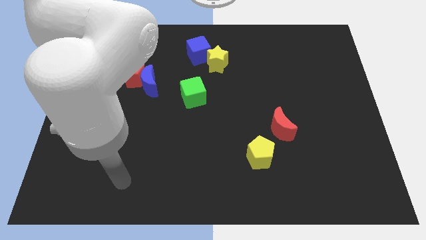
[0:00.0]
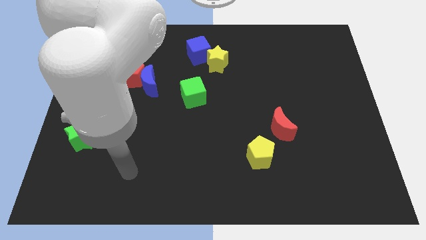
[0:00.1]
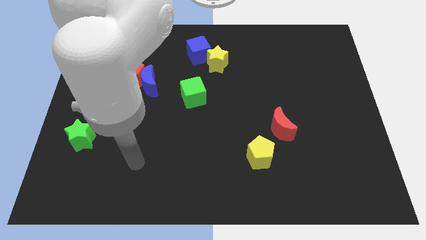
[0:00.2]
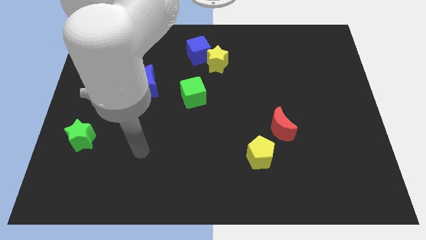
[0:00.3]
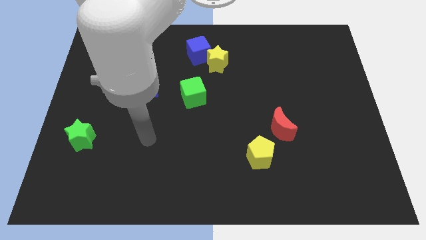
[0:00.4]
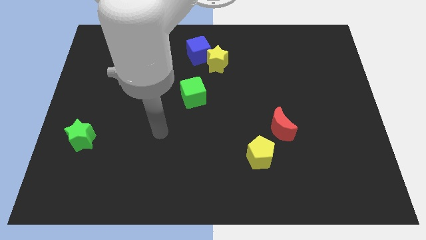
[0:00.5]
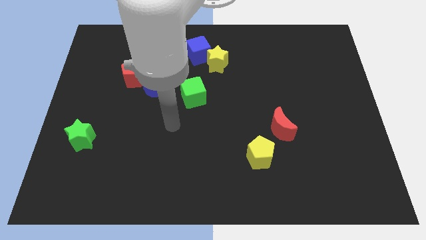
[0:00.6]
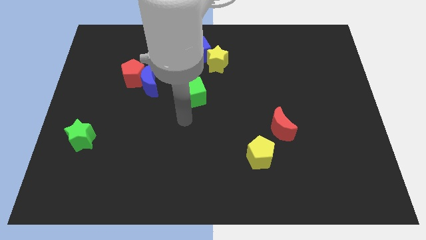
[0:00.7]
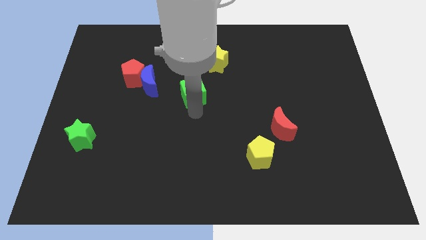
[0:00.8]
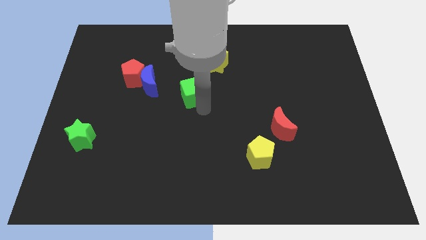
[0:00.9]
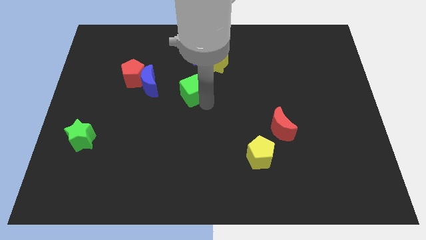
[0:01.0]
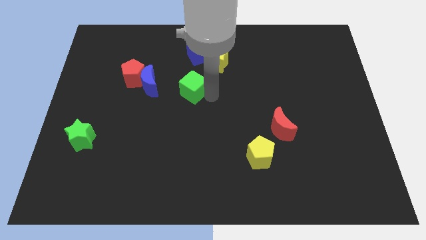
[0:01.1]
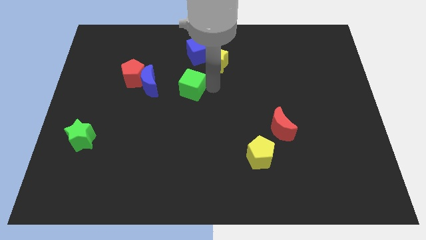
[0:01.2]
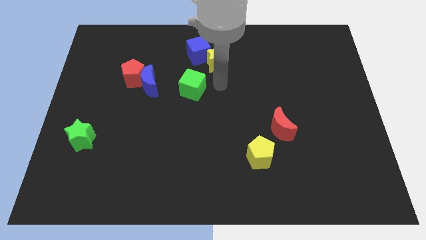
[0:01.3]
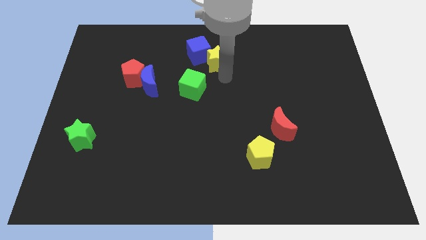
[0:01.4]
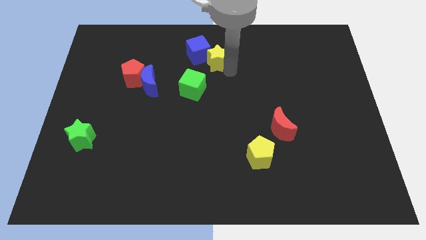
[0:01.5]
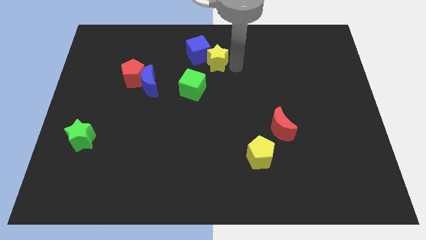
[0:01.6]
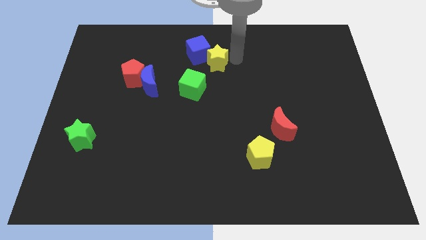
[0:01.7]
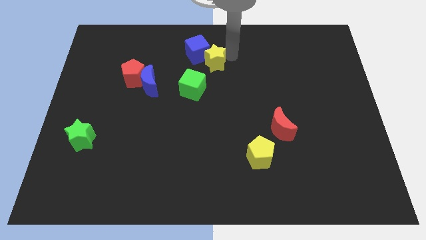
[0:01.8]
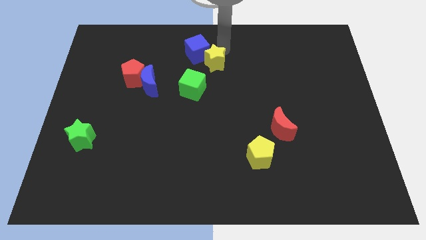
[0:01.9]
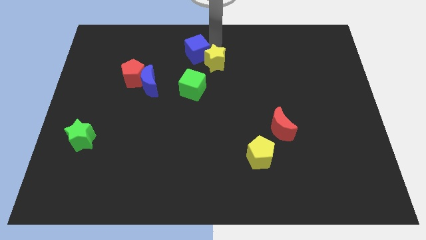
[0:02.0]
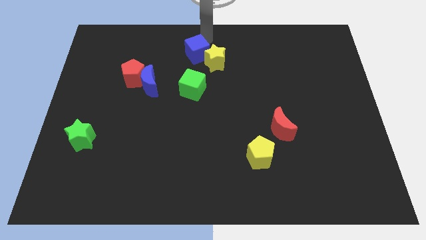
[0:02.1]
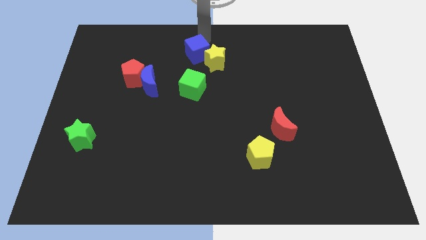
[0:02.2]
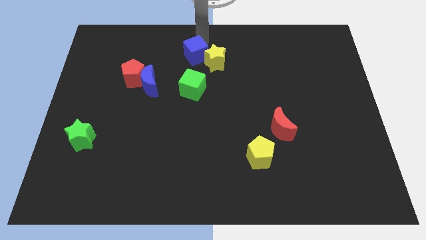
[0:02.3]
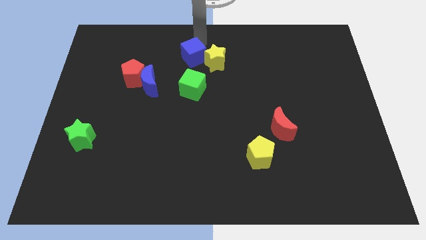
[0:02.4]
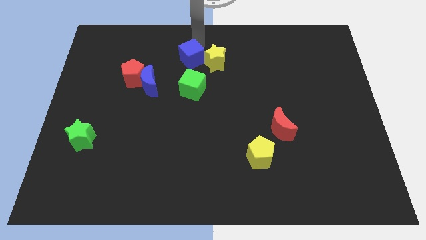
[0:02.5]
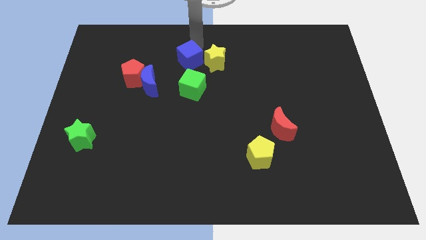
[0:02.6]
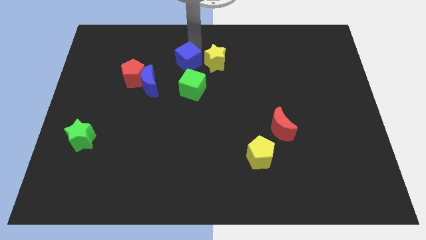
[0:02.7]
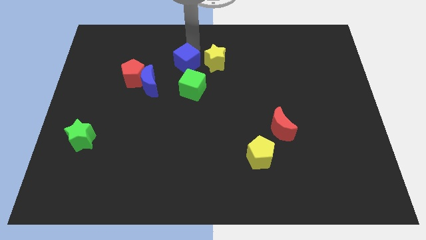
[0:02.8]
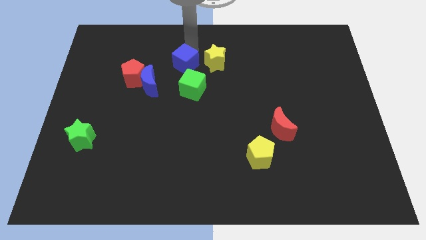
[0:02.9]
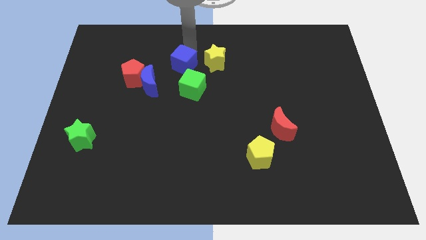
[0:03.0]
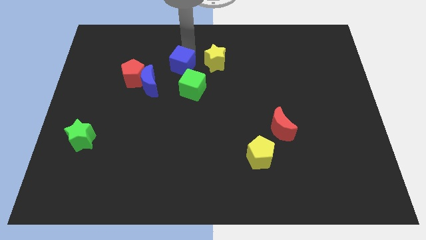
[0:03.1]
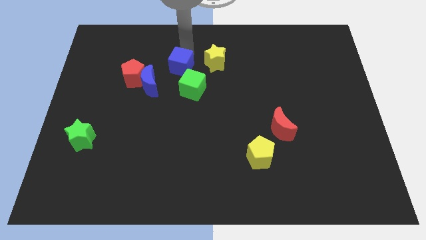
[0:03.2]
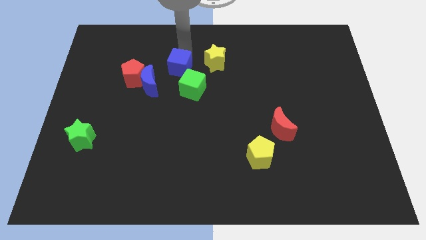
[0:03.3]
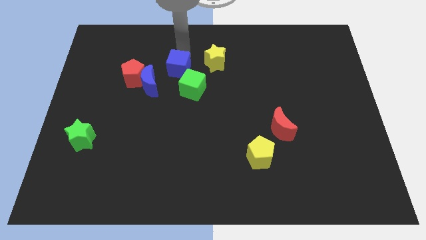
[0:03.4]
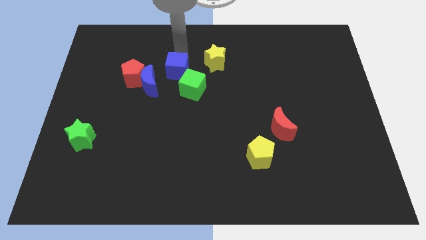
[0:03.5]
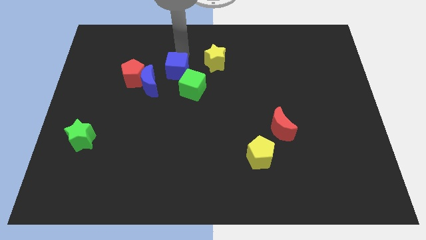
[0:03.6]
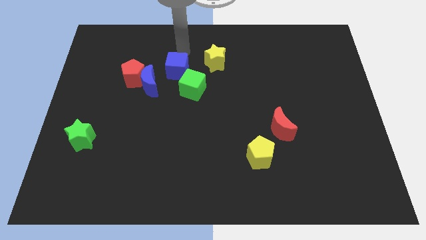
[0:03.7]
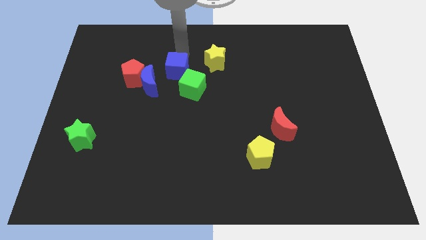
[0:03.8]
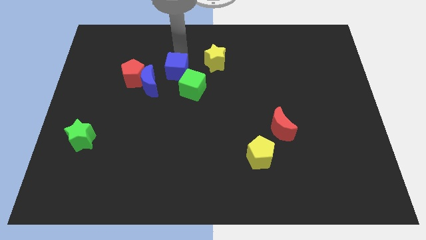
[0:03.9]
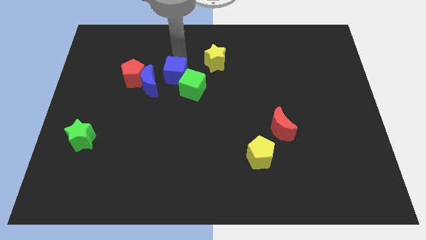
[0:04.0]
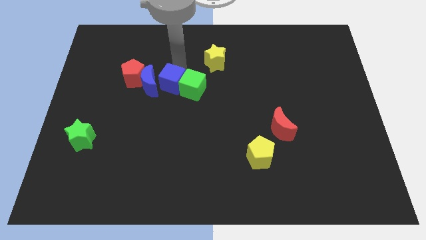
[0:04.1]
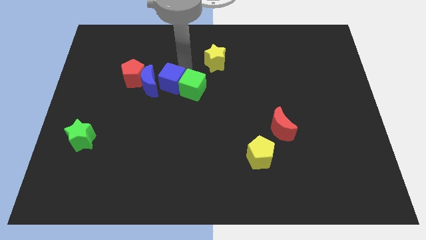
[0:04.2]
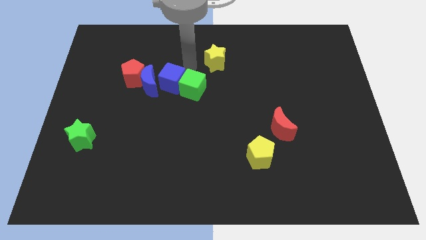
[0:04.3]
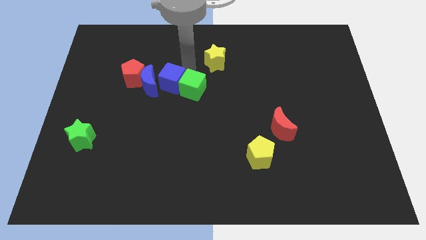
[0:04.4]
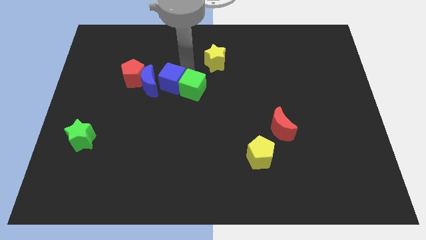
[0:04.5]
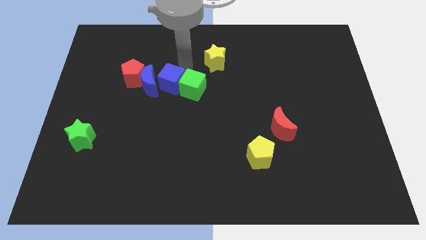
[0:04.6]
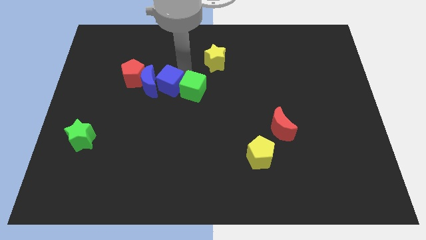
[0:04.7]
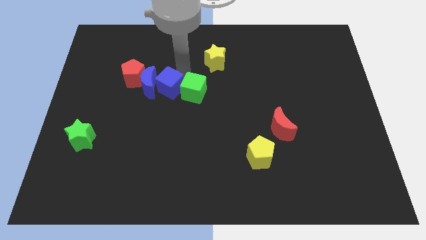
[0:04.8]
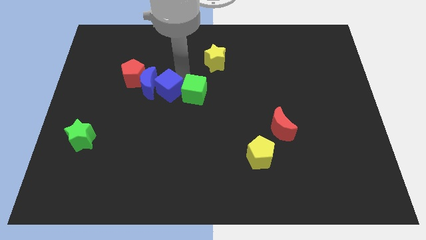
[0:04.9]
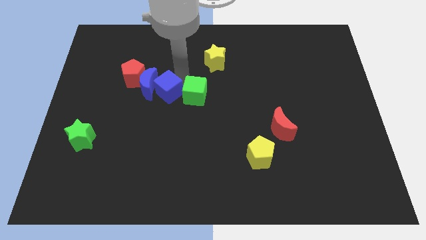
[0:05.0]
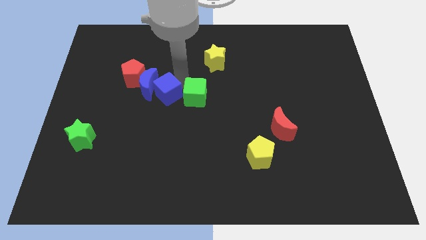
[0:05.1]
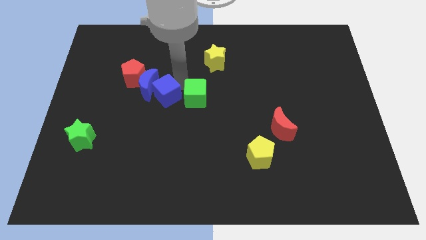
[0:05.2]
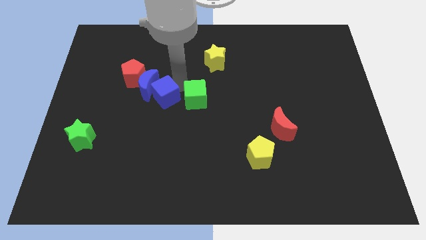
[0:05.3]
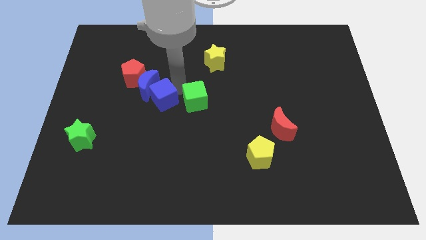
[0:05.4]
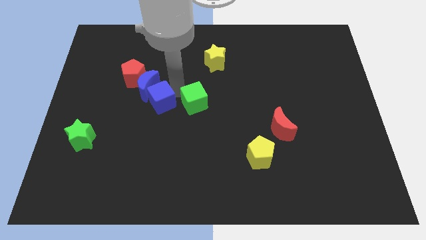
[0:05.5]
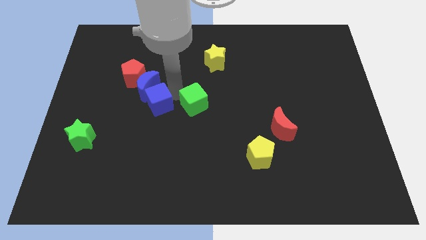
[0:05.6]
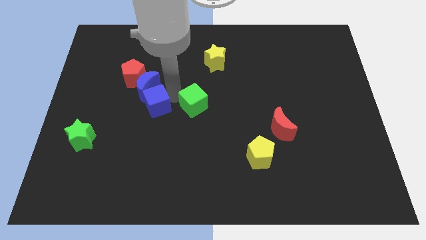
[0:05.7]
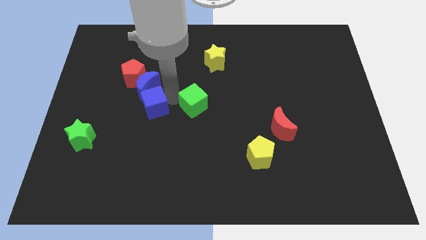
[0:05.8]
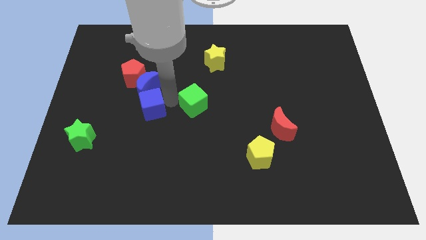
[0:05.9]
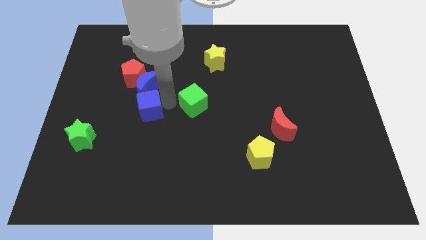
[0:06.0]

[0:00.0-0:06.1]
slide the blue cube diagonally downwards and to the left

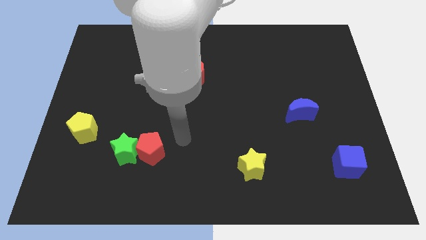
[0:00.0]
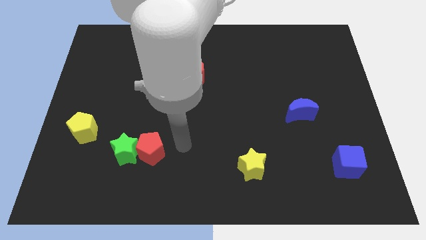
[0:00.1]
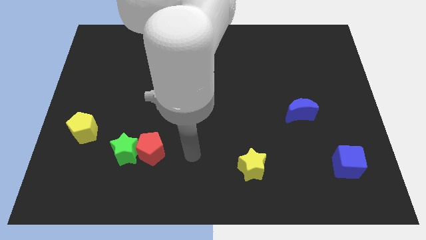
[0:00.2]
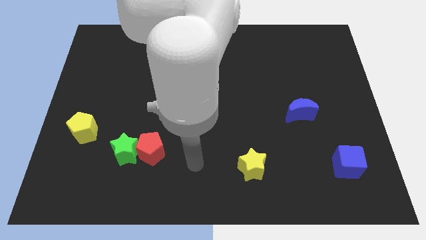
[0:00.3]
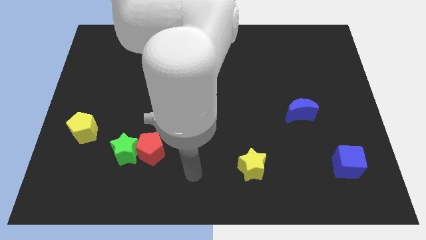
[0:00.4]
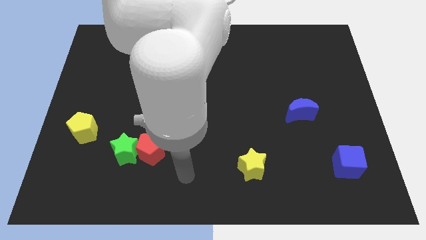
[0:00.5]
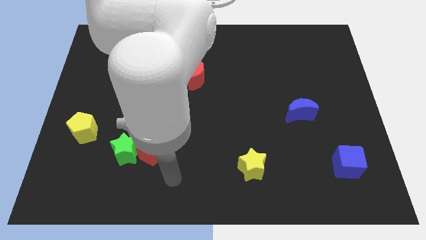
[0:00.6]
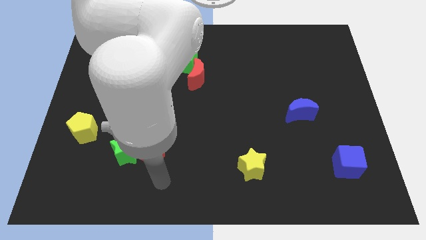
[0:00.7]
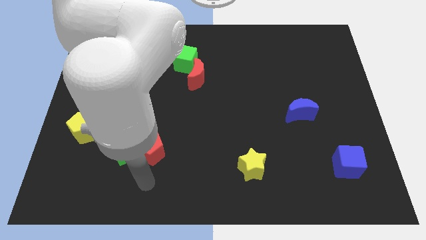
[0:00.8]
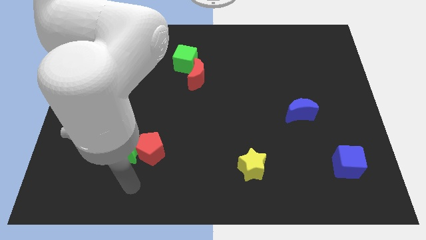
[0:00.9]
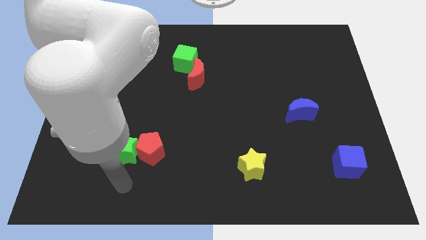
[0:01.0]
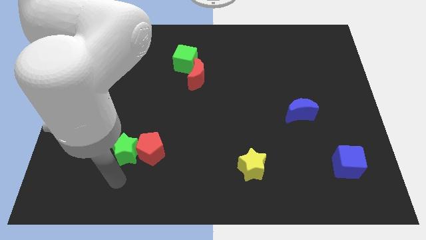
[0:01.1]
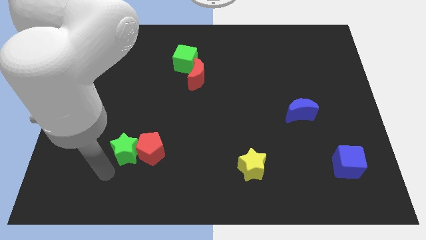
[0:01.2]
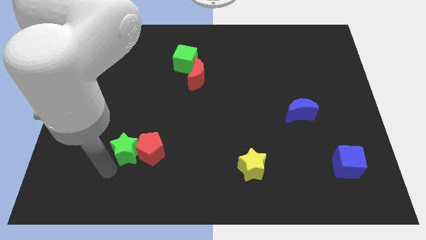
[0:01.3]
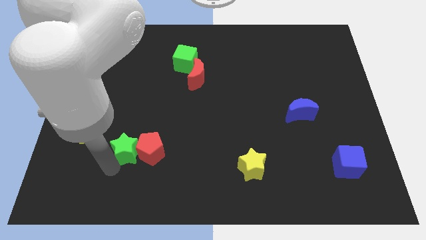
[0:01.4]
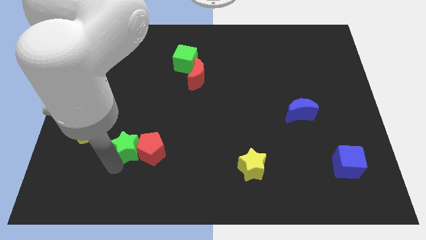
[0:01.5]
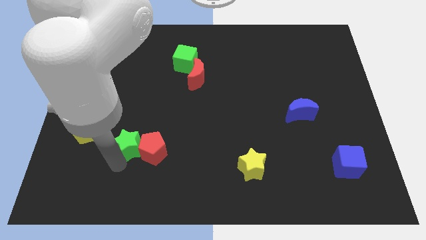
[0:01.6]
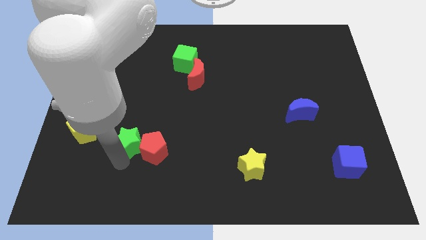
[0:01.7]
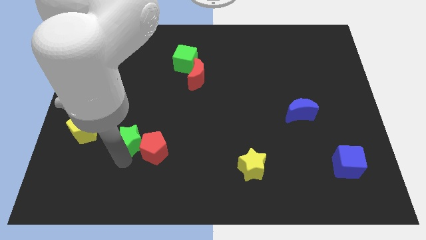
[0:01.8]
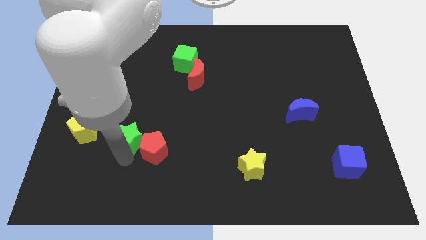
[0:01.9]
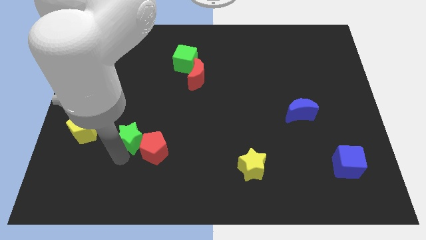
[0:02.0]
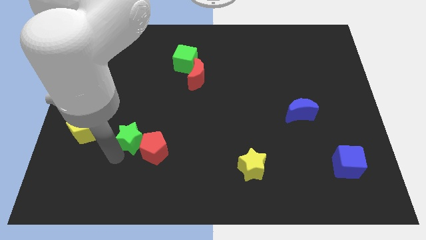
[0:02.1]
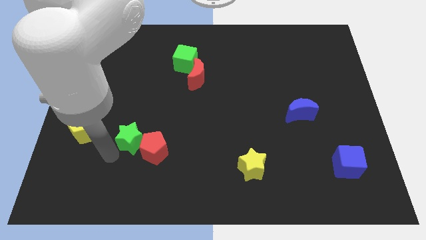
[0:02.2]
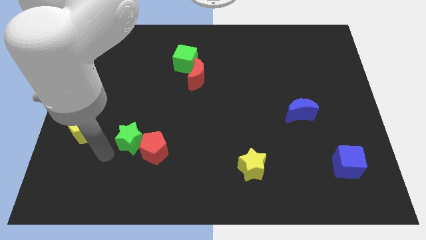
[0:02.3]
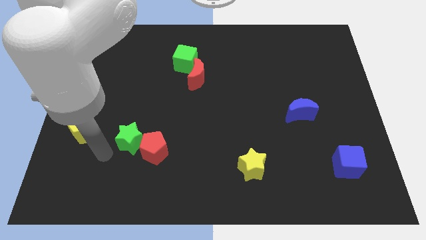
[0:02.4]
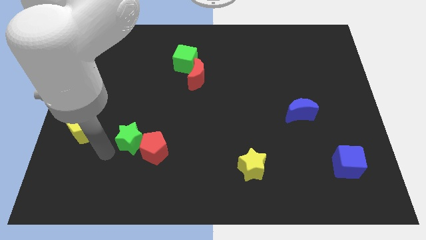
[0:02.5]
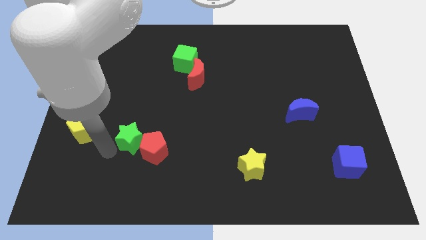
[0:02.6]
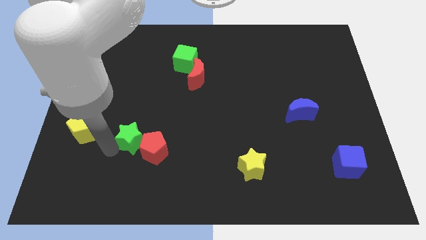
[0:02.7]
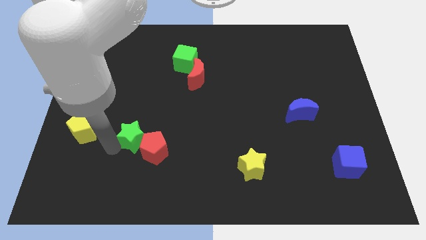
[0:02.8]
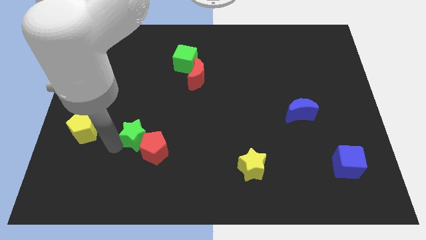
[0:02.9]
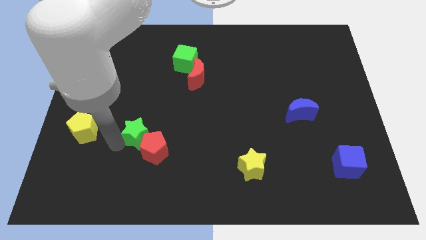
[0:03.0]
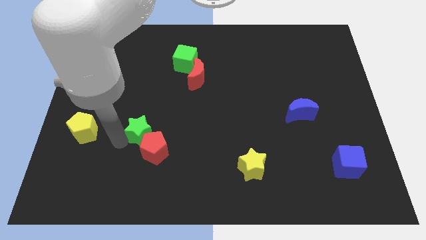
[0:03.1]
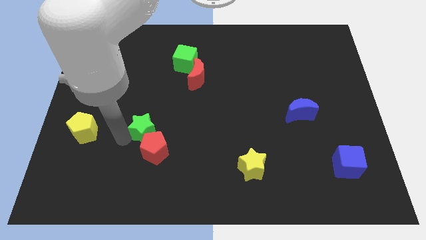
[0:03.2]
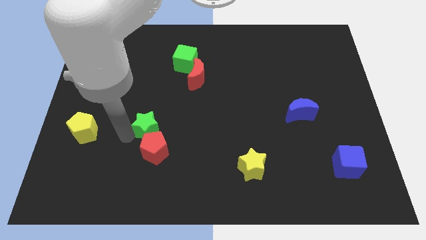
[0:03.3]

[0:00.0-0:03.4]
push the green star up and right diagonally a bit
